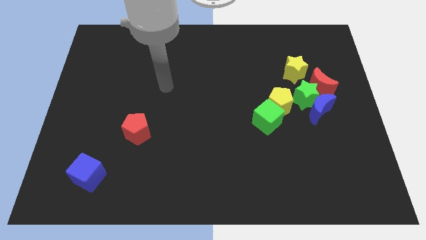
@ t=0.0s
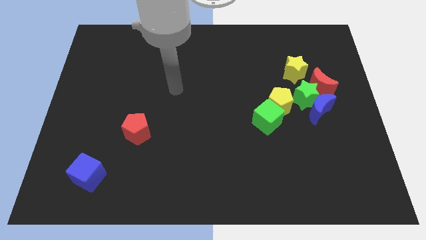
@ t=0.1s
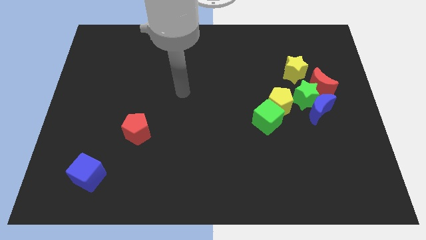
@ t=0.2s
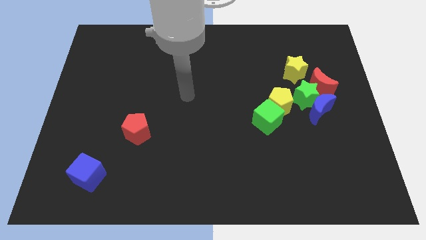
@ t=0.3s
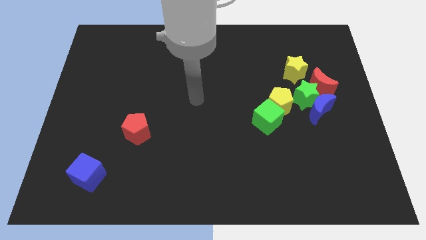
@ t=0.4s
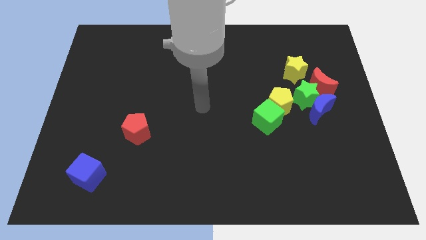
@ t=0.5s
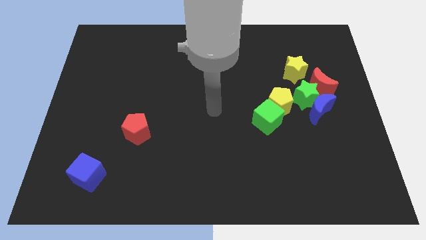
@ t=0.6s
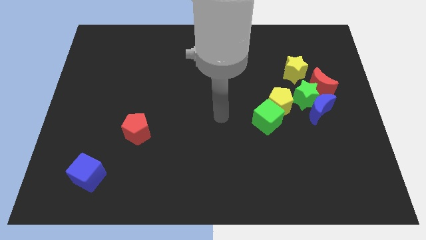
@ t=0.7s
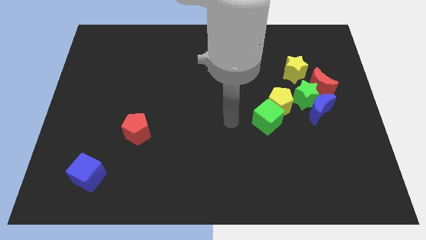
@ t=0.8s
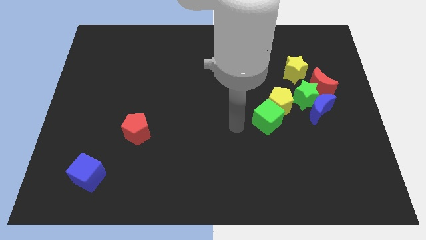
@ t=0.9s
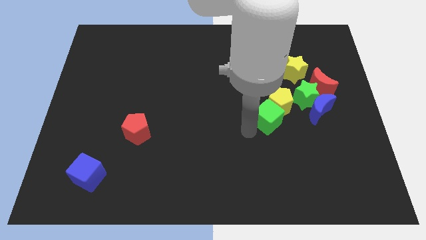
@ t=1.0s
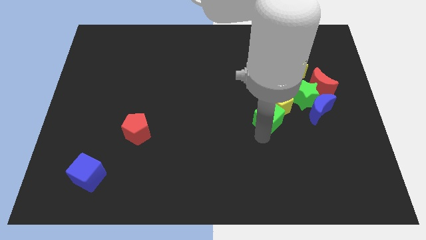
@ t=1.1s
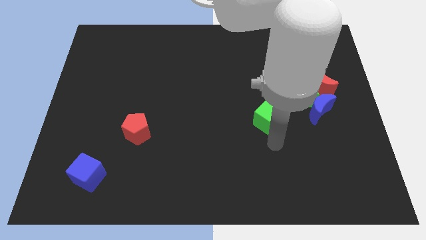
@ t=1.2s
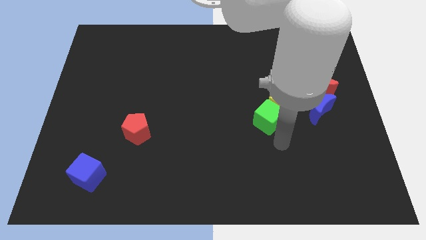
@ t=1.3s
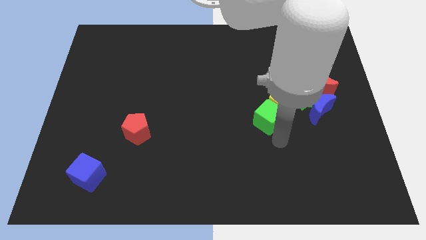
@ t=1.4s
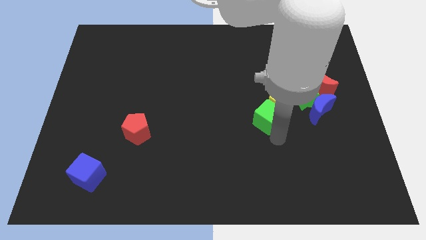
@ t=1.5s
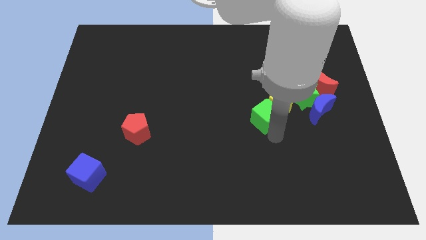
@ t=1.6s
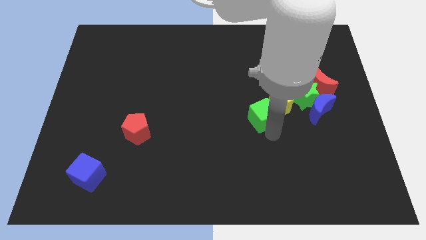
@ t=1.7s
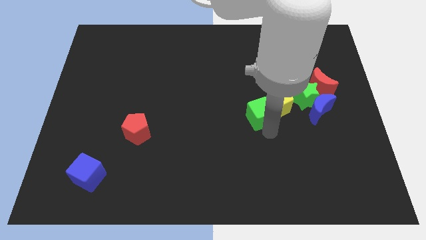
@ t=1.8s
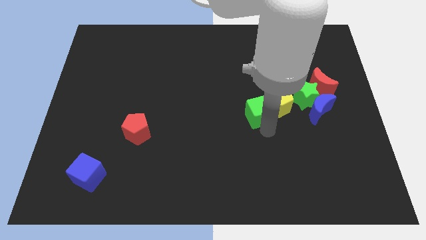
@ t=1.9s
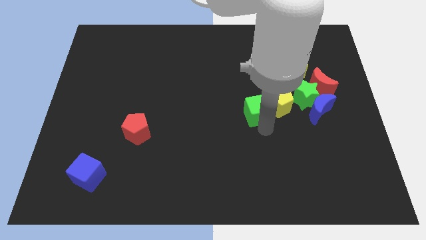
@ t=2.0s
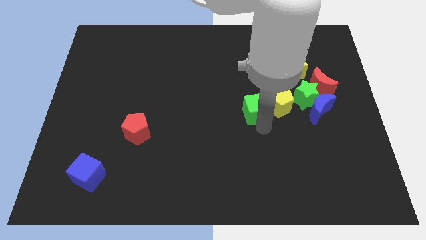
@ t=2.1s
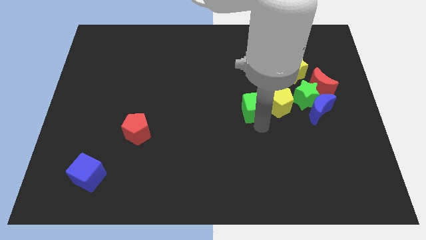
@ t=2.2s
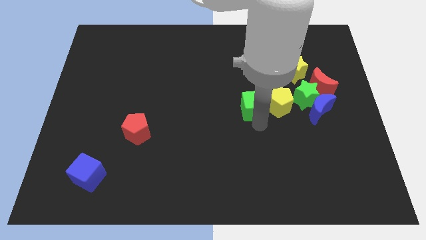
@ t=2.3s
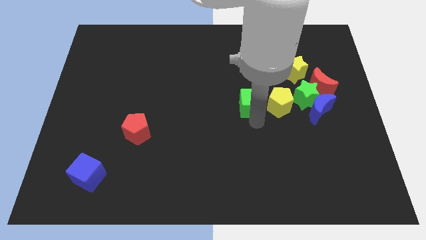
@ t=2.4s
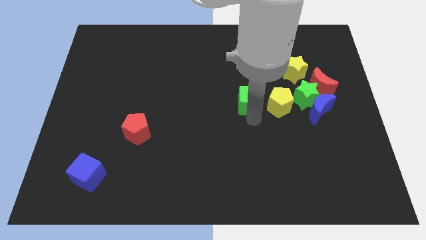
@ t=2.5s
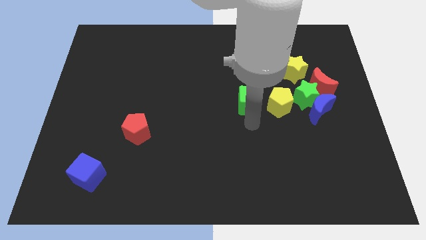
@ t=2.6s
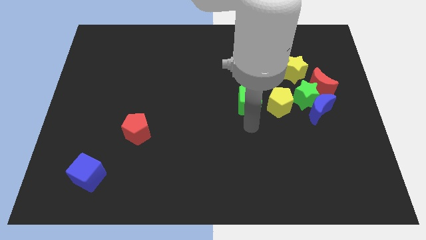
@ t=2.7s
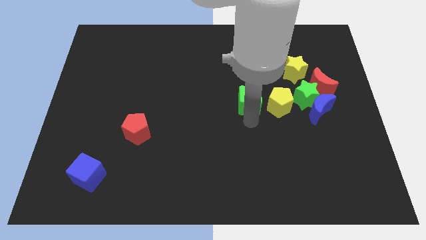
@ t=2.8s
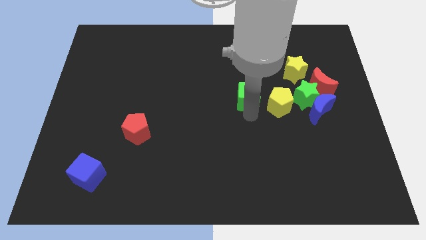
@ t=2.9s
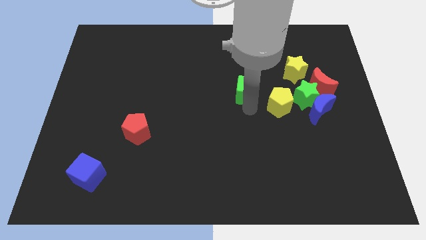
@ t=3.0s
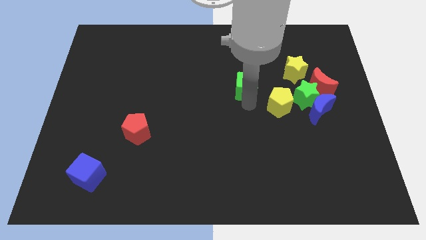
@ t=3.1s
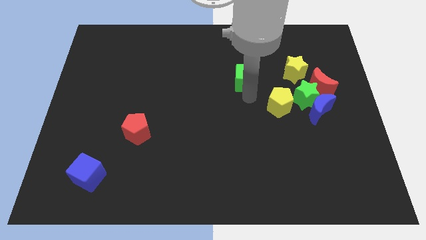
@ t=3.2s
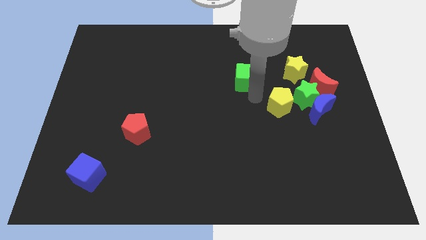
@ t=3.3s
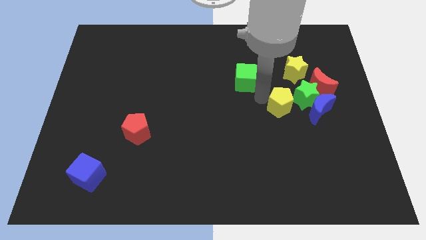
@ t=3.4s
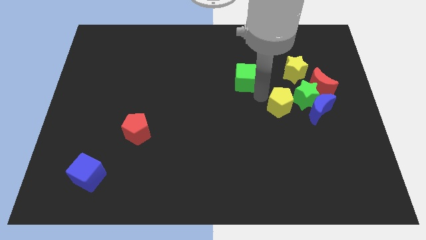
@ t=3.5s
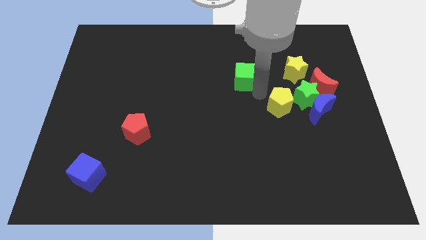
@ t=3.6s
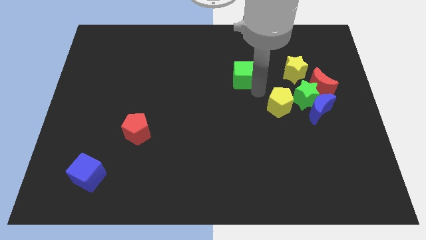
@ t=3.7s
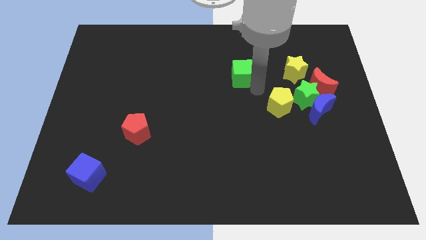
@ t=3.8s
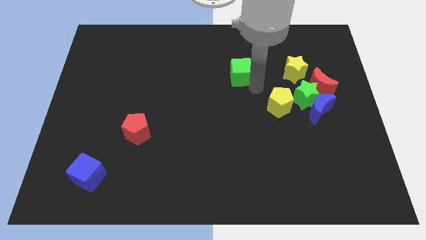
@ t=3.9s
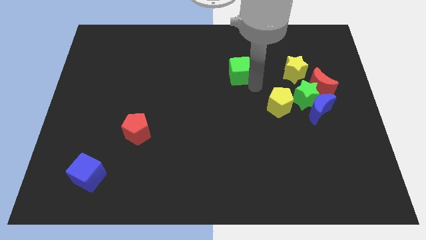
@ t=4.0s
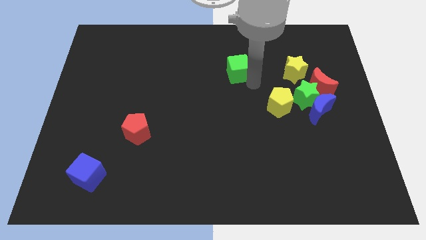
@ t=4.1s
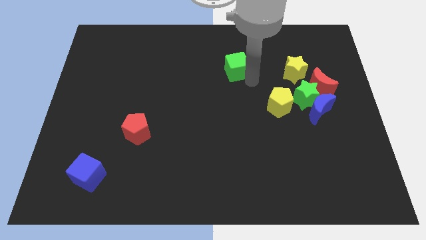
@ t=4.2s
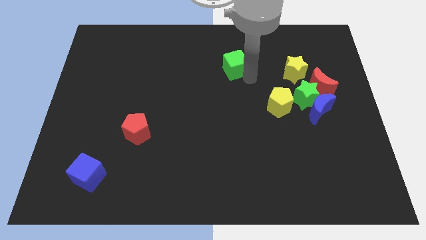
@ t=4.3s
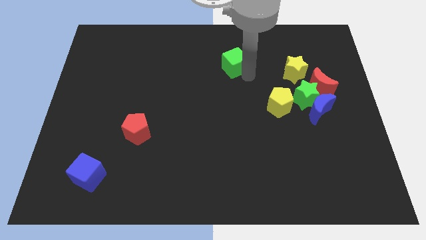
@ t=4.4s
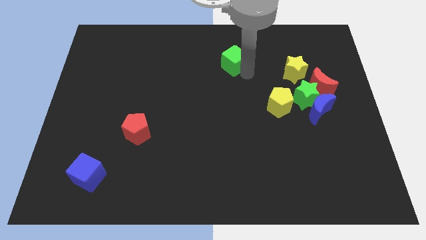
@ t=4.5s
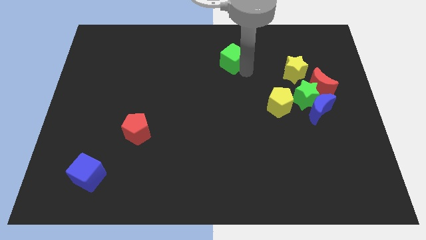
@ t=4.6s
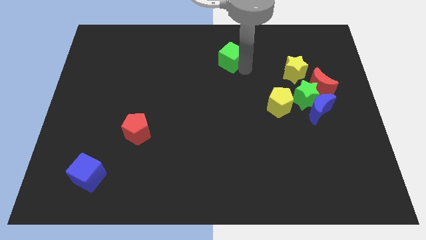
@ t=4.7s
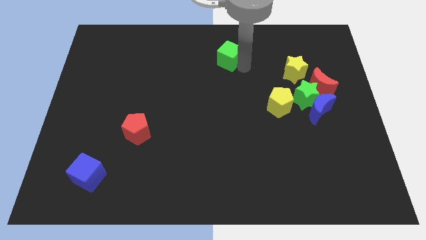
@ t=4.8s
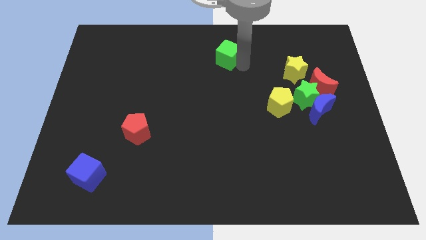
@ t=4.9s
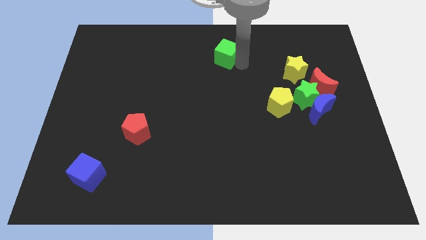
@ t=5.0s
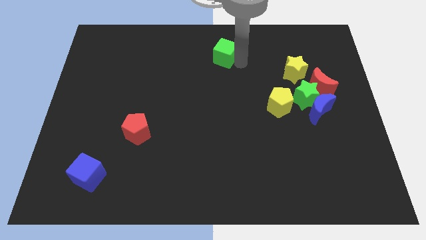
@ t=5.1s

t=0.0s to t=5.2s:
slide the green cube to the top

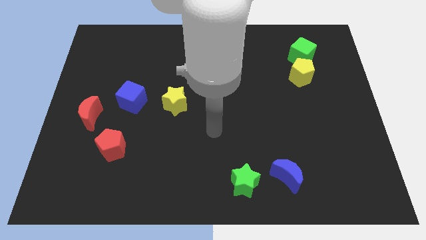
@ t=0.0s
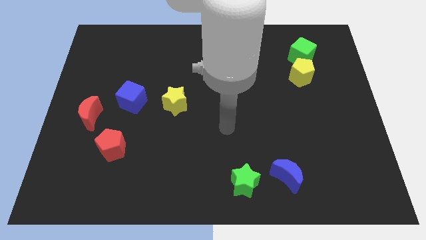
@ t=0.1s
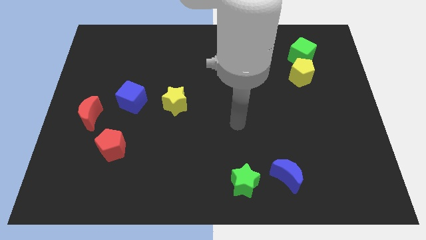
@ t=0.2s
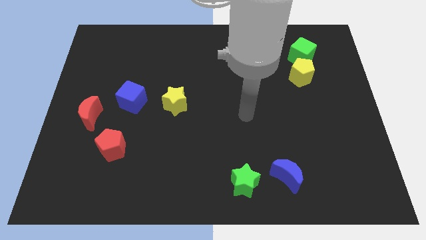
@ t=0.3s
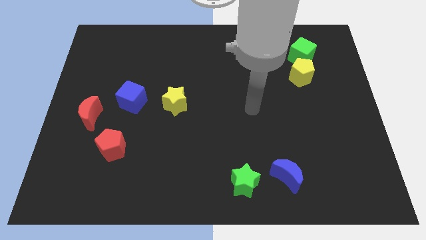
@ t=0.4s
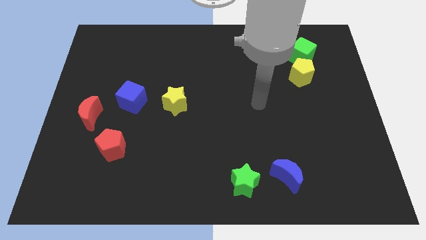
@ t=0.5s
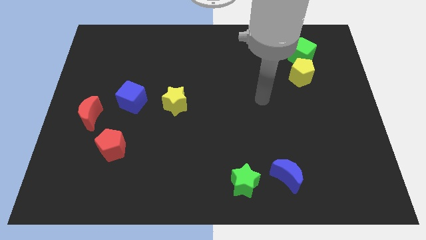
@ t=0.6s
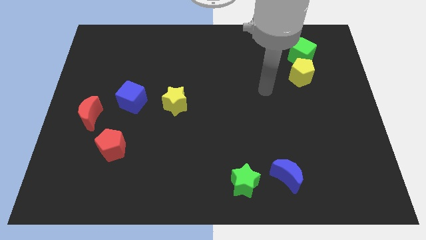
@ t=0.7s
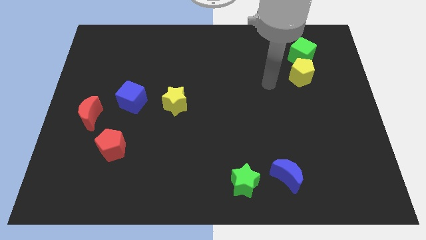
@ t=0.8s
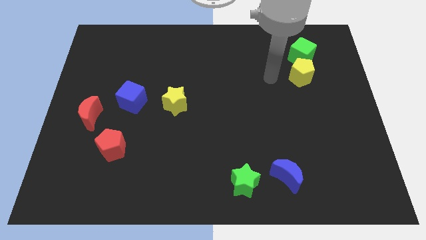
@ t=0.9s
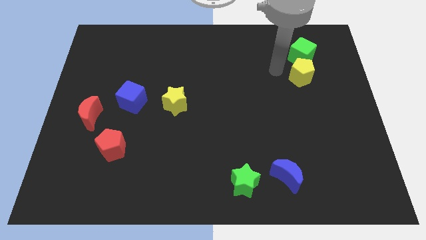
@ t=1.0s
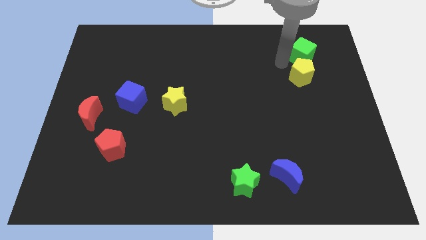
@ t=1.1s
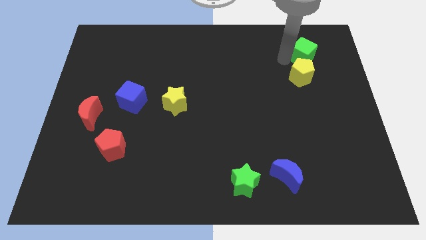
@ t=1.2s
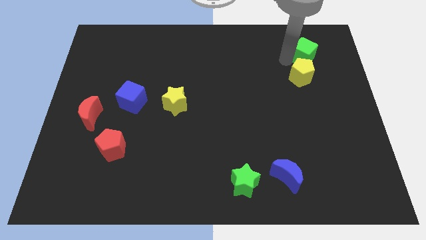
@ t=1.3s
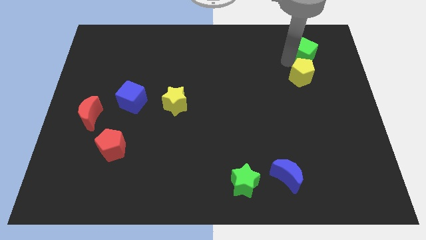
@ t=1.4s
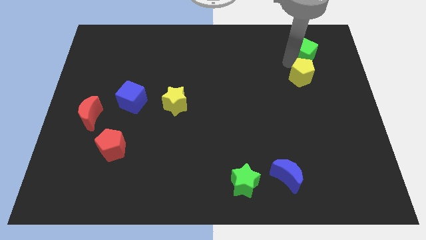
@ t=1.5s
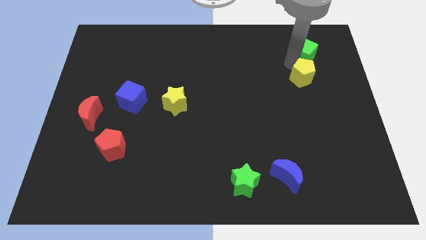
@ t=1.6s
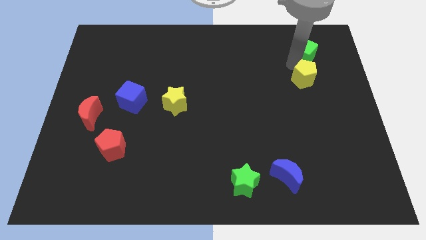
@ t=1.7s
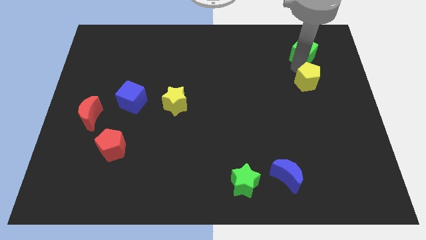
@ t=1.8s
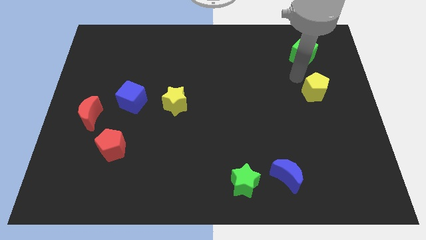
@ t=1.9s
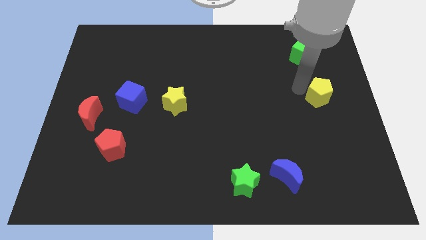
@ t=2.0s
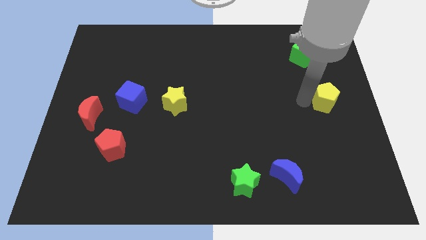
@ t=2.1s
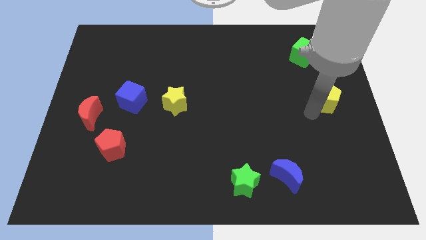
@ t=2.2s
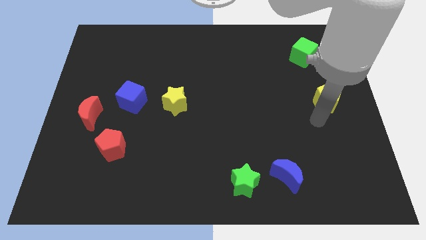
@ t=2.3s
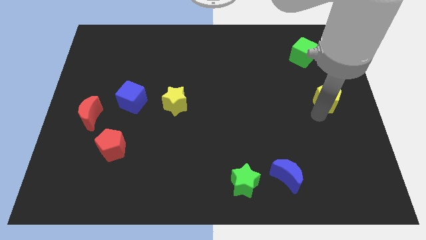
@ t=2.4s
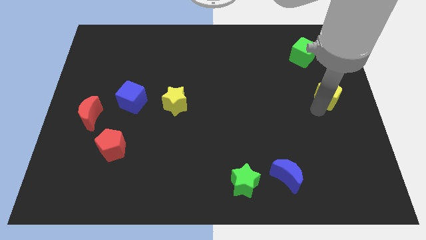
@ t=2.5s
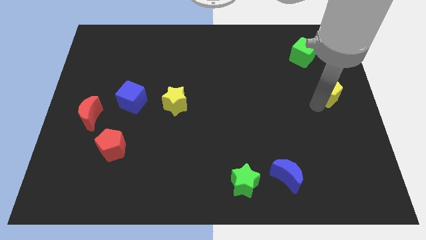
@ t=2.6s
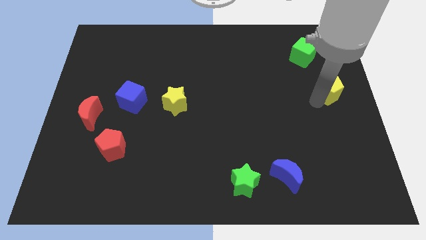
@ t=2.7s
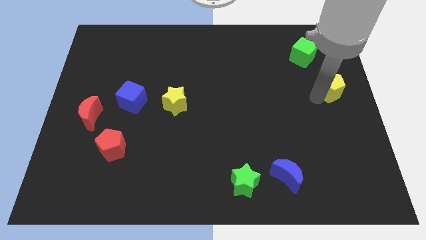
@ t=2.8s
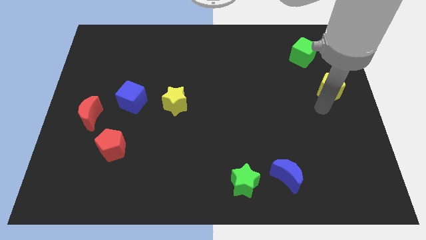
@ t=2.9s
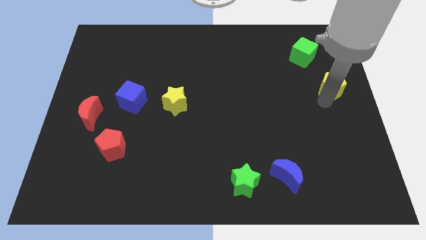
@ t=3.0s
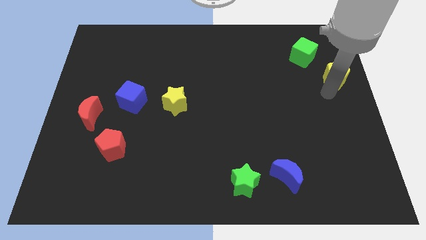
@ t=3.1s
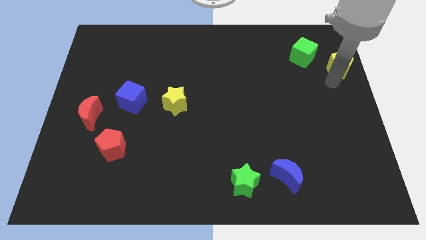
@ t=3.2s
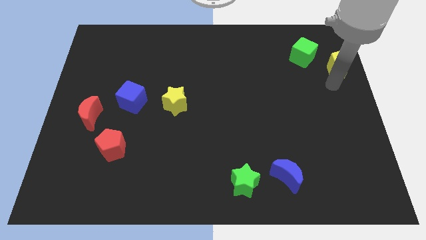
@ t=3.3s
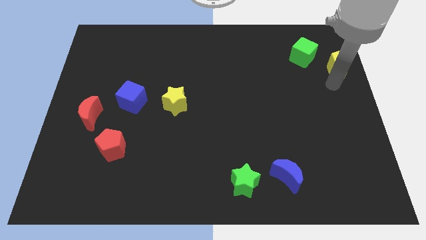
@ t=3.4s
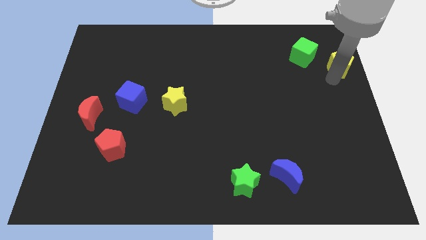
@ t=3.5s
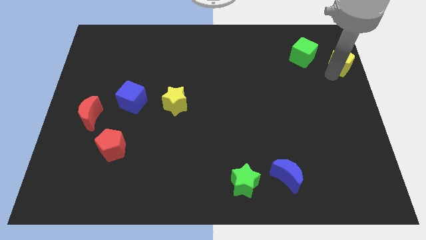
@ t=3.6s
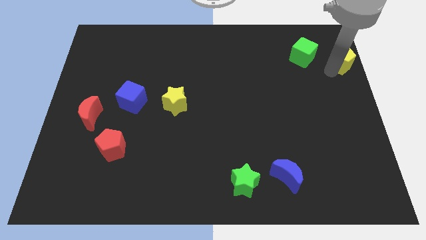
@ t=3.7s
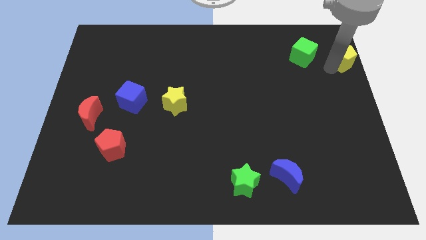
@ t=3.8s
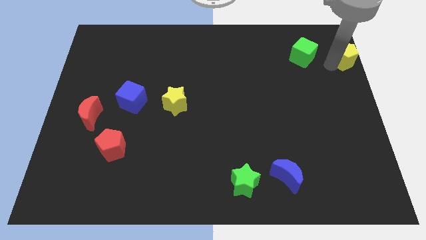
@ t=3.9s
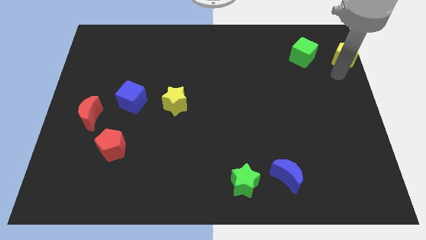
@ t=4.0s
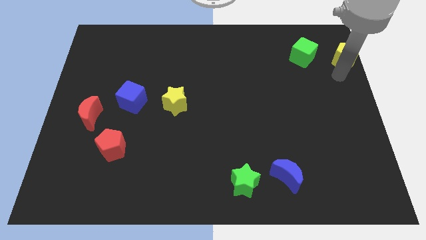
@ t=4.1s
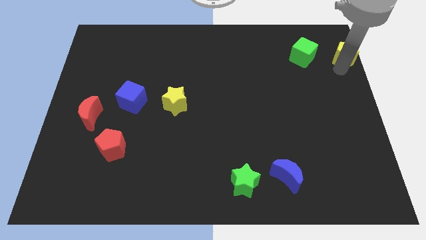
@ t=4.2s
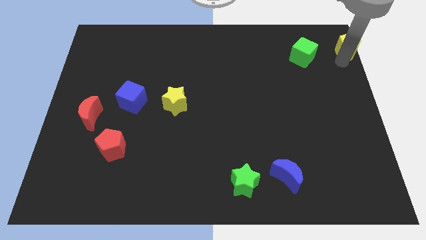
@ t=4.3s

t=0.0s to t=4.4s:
push the yellow pentagon to the upper right corner
